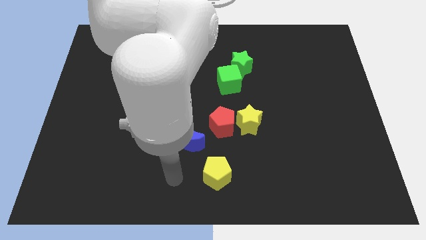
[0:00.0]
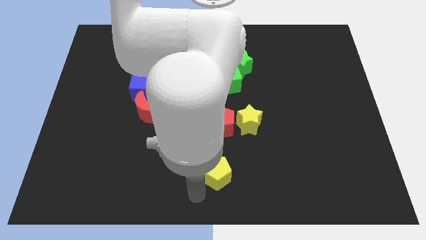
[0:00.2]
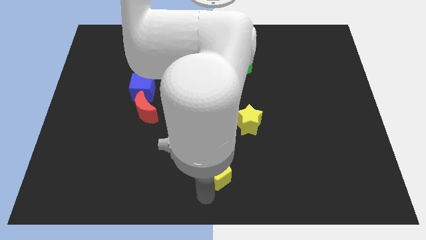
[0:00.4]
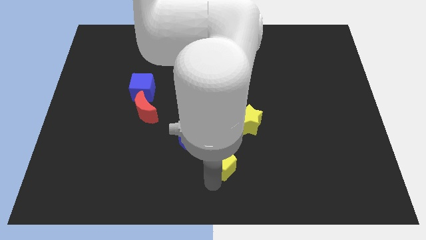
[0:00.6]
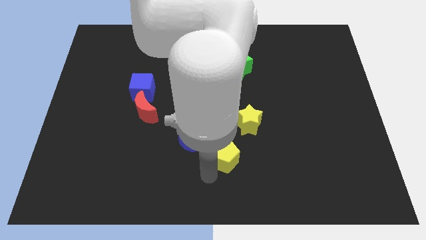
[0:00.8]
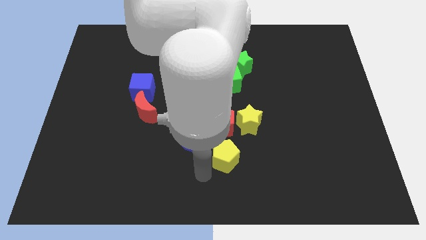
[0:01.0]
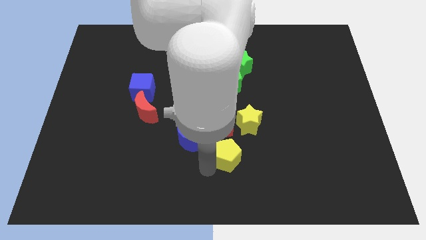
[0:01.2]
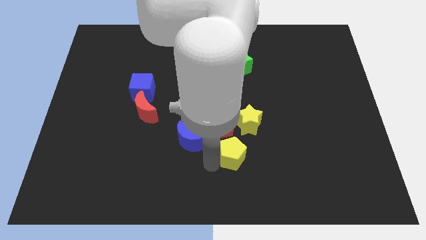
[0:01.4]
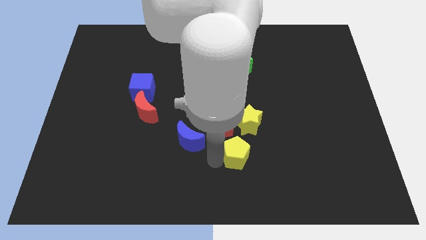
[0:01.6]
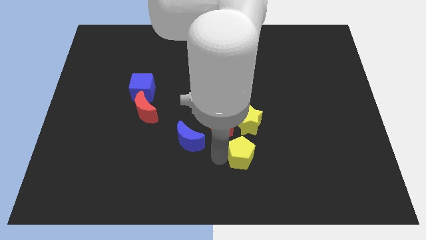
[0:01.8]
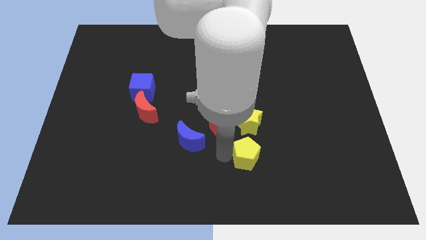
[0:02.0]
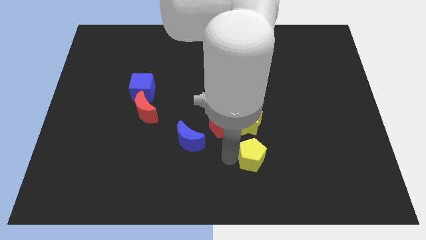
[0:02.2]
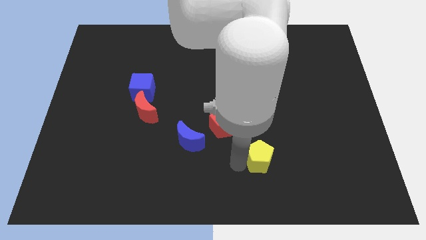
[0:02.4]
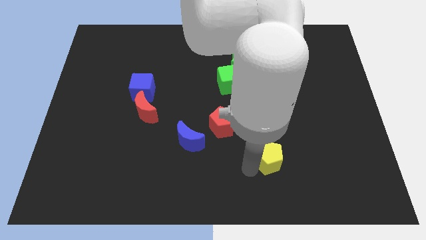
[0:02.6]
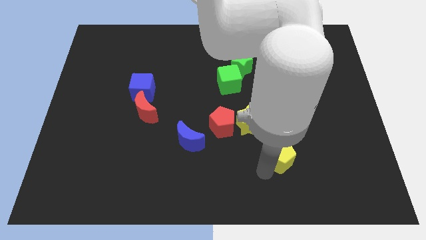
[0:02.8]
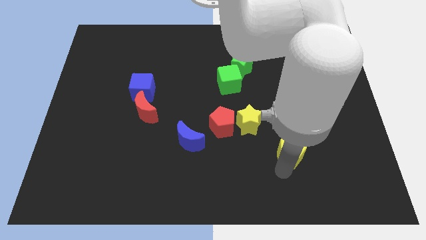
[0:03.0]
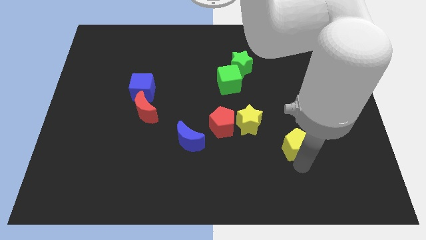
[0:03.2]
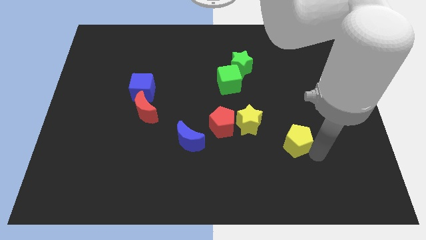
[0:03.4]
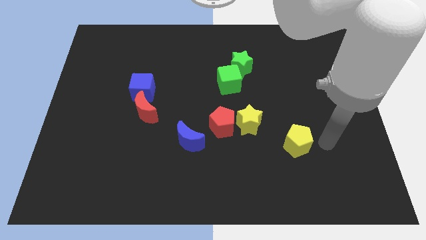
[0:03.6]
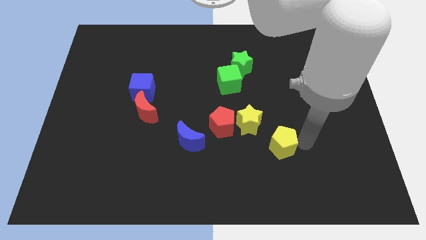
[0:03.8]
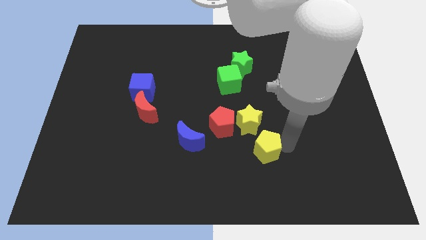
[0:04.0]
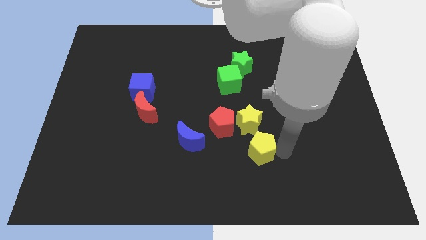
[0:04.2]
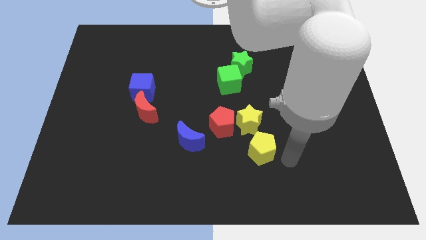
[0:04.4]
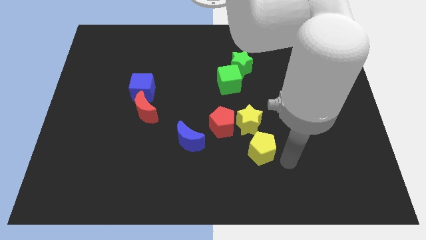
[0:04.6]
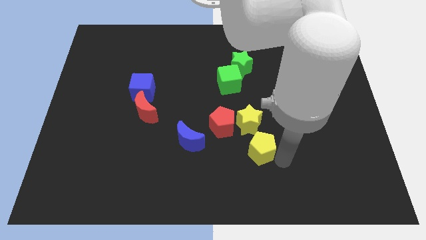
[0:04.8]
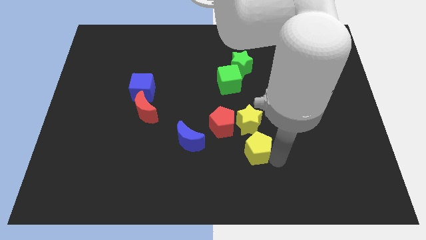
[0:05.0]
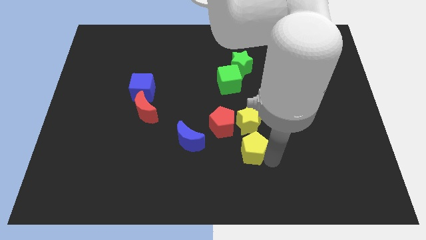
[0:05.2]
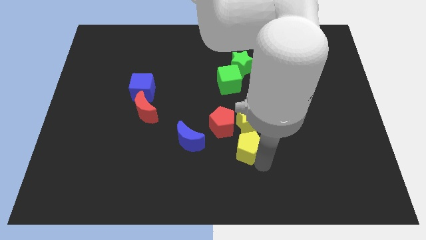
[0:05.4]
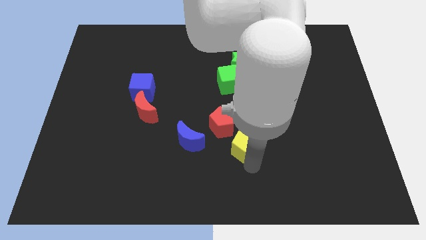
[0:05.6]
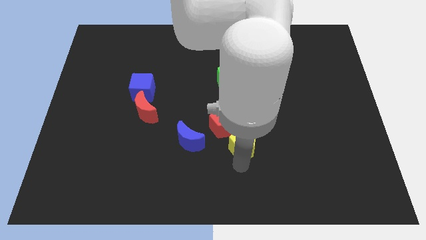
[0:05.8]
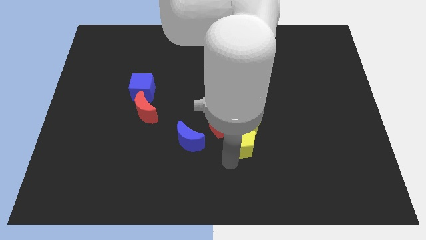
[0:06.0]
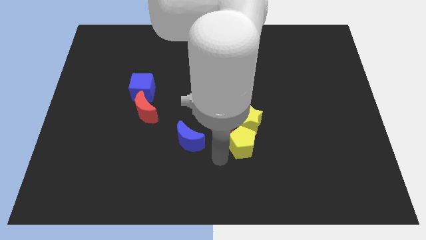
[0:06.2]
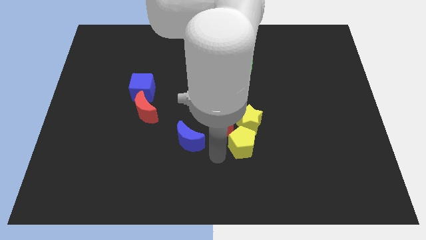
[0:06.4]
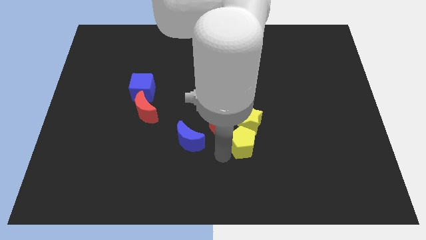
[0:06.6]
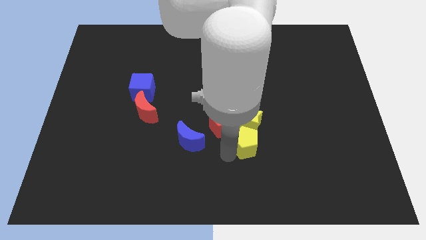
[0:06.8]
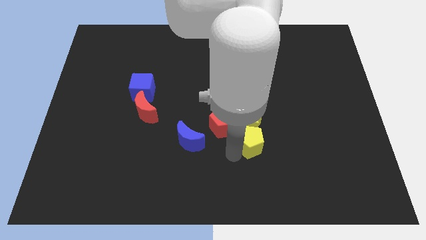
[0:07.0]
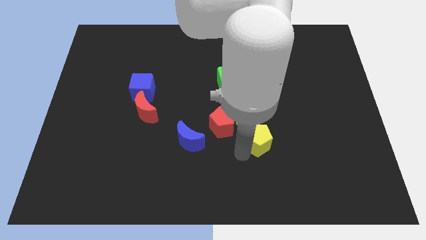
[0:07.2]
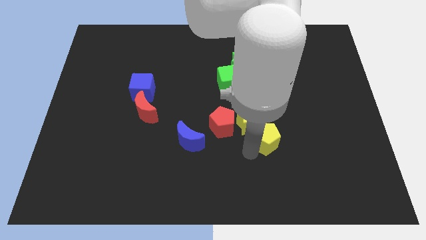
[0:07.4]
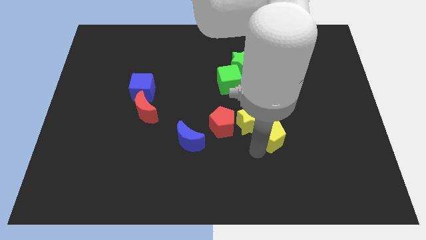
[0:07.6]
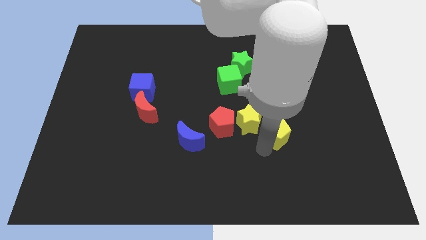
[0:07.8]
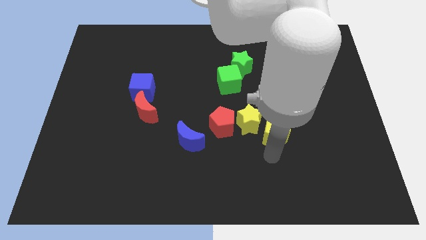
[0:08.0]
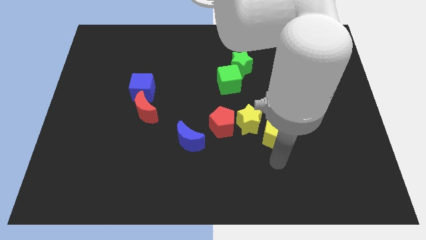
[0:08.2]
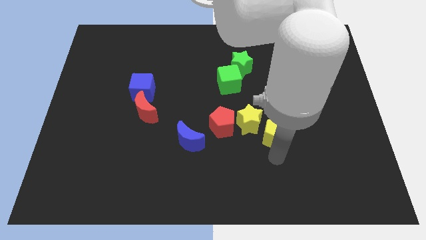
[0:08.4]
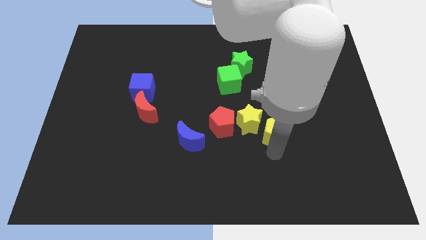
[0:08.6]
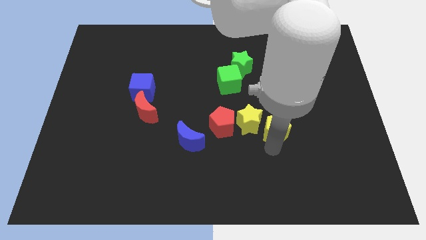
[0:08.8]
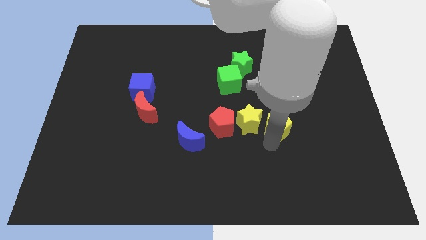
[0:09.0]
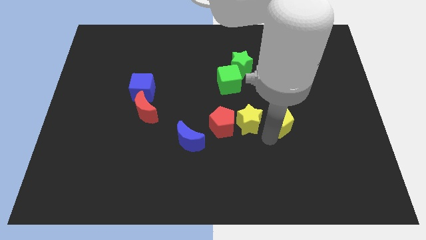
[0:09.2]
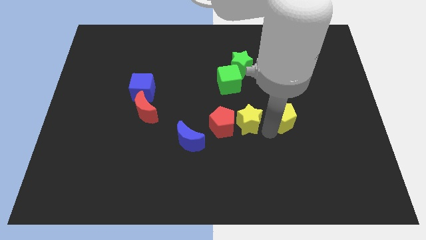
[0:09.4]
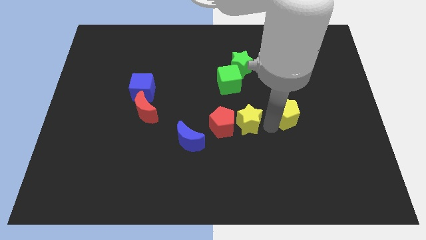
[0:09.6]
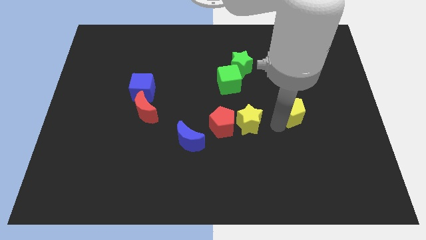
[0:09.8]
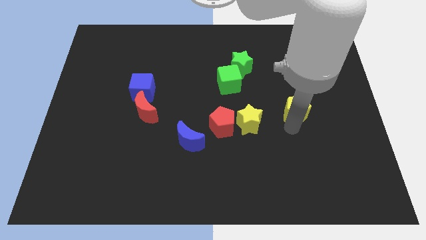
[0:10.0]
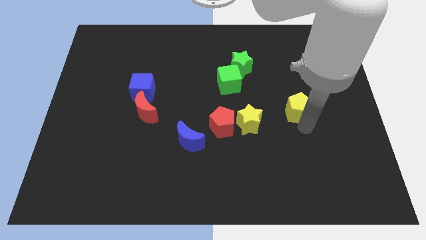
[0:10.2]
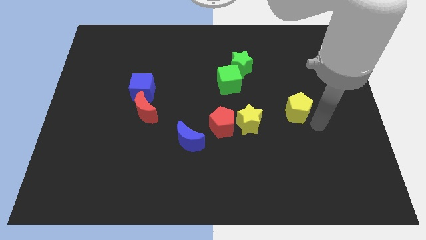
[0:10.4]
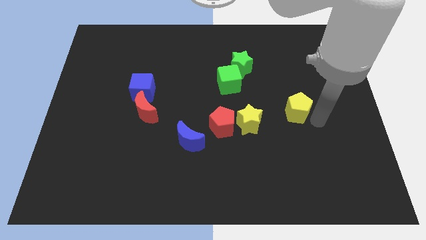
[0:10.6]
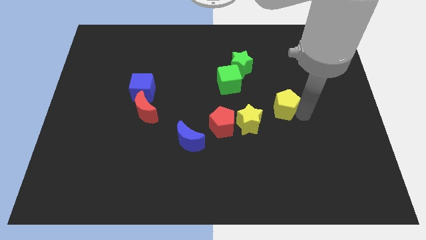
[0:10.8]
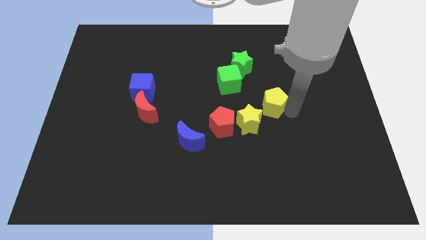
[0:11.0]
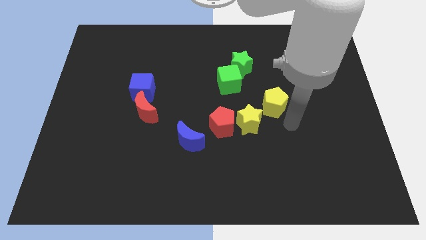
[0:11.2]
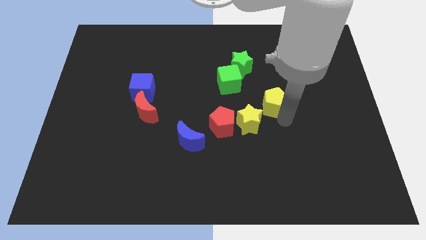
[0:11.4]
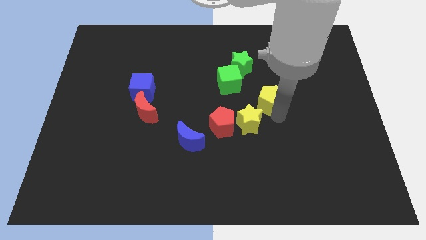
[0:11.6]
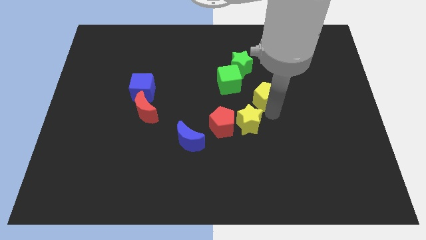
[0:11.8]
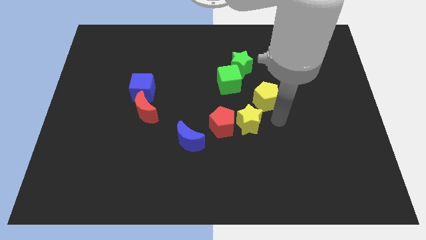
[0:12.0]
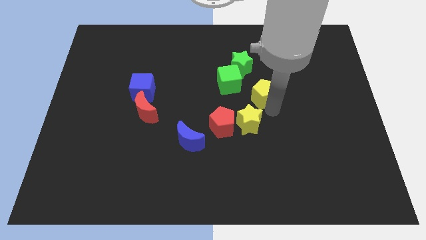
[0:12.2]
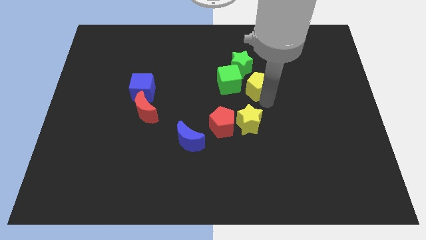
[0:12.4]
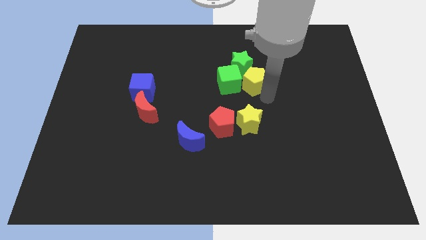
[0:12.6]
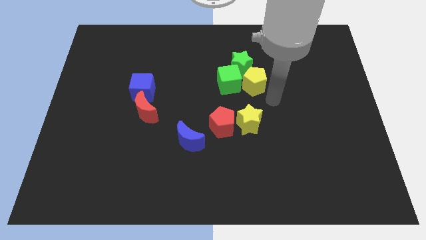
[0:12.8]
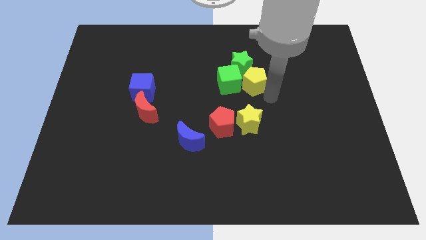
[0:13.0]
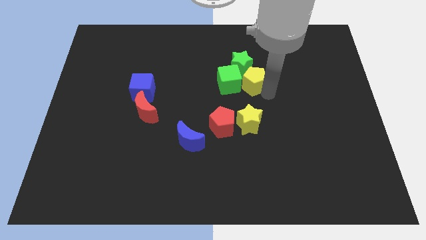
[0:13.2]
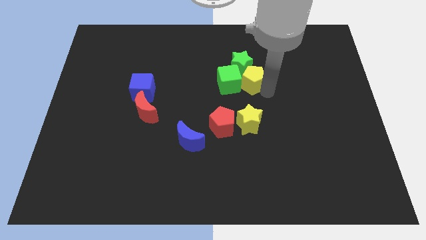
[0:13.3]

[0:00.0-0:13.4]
put the yellow pentagon close to the green star
